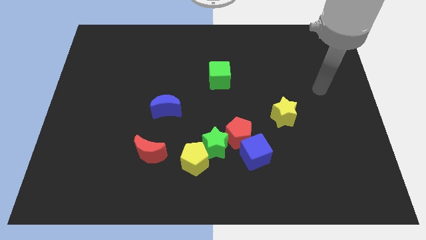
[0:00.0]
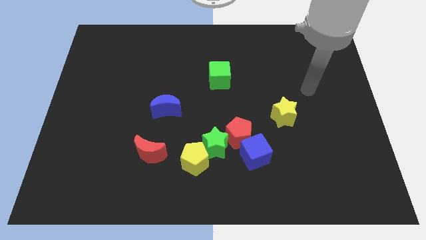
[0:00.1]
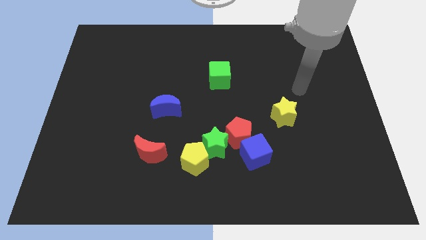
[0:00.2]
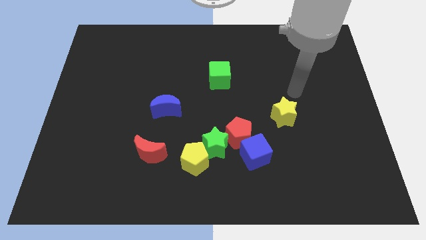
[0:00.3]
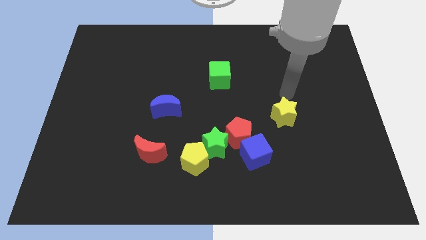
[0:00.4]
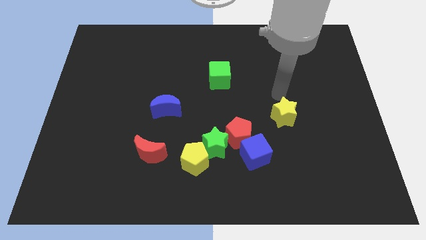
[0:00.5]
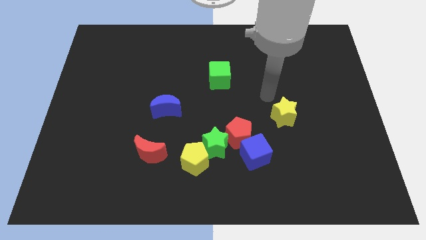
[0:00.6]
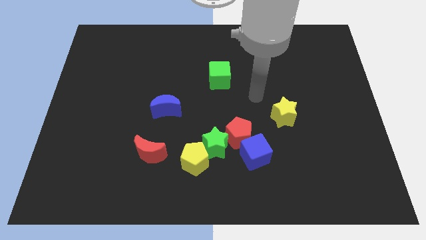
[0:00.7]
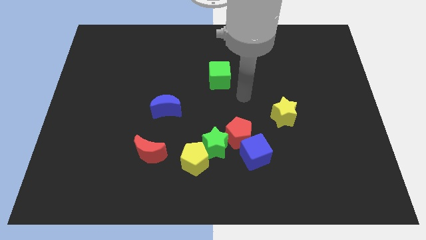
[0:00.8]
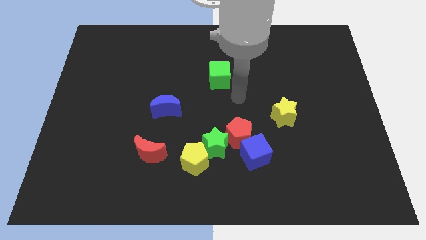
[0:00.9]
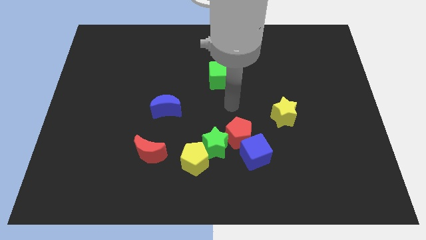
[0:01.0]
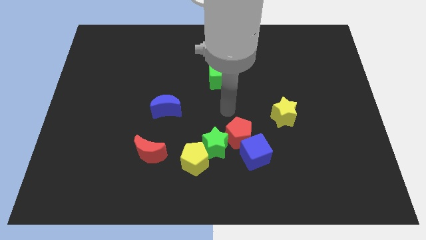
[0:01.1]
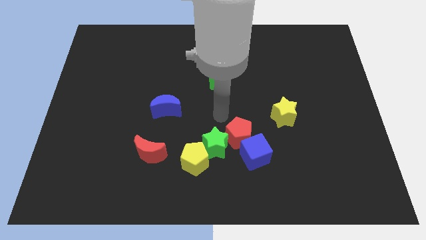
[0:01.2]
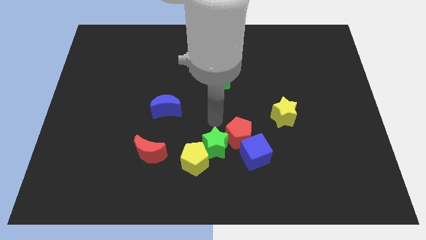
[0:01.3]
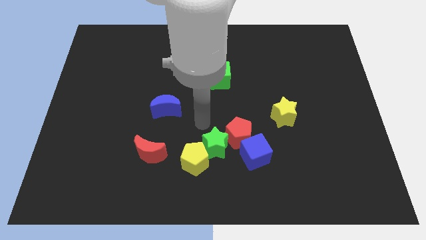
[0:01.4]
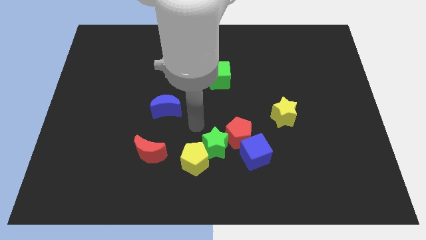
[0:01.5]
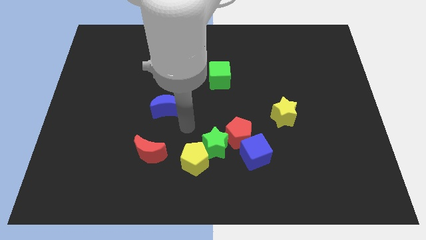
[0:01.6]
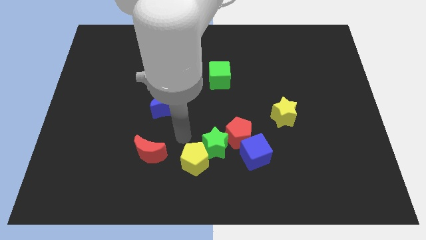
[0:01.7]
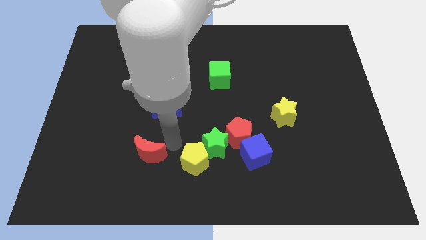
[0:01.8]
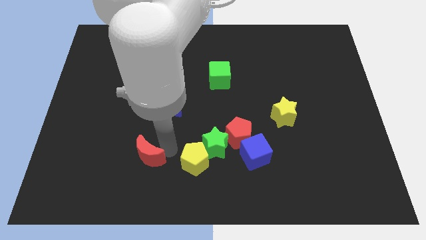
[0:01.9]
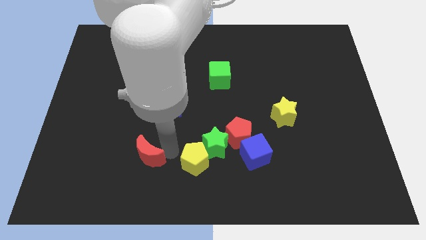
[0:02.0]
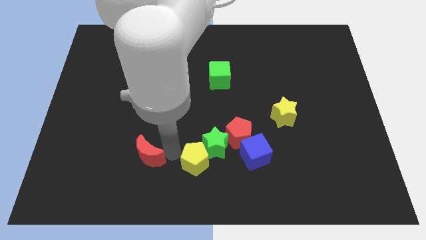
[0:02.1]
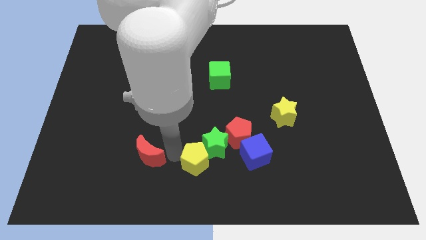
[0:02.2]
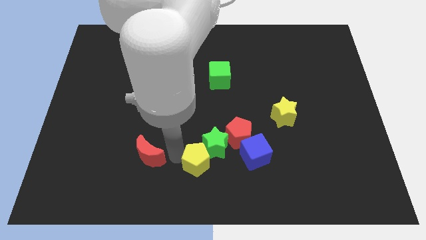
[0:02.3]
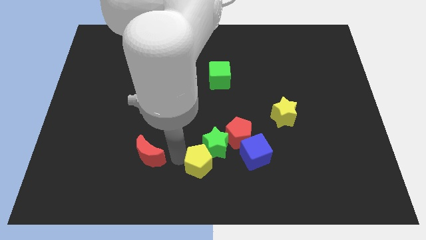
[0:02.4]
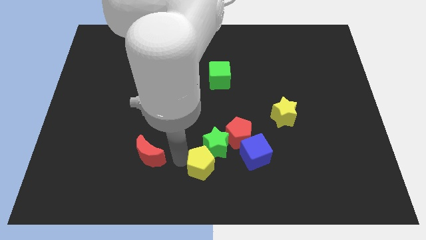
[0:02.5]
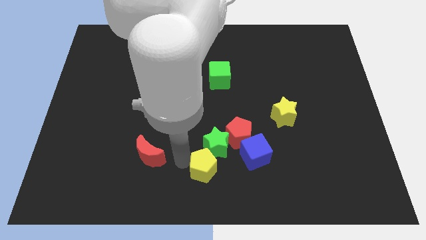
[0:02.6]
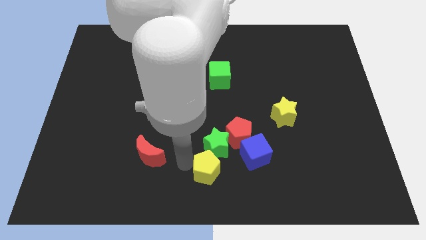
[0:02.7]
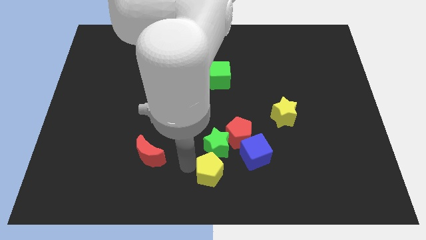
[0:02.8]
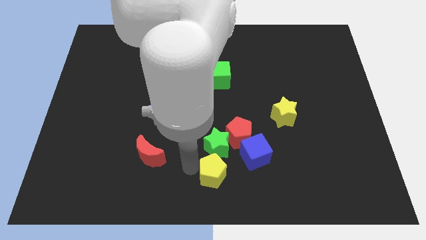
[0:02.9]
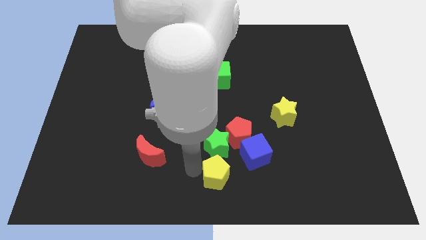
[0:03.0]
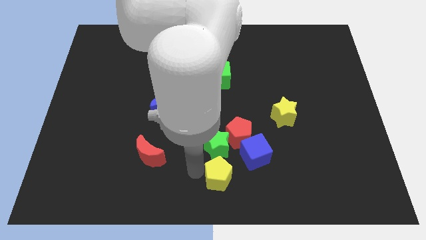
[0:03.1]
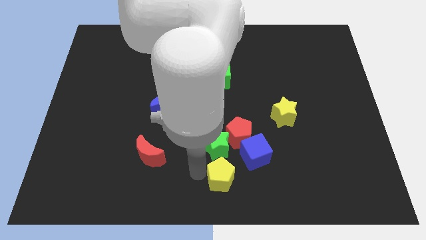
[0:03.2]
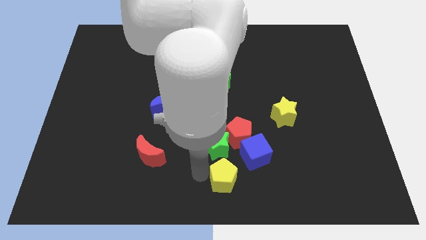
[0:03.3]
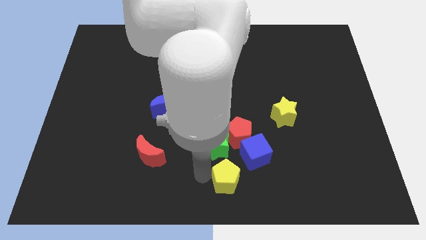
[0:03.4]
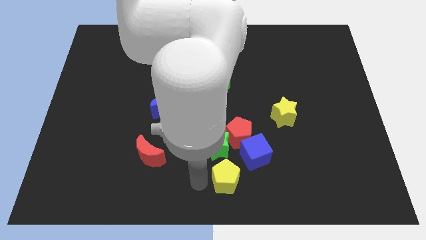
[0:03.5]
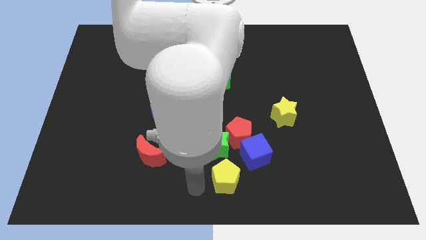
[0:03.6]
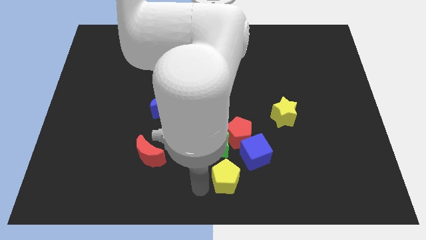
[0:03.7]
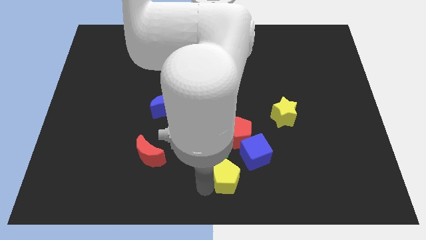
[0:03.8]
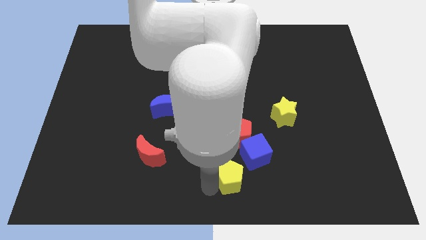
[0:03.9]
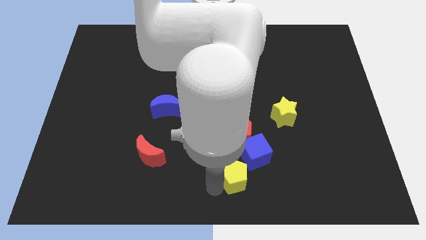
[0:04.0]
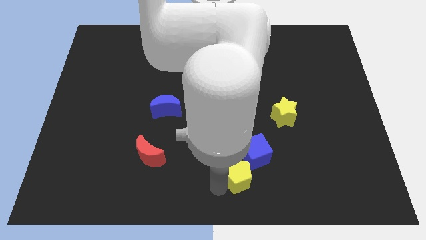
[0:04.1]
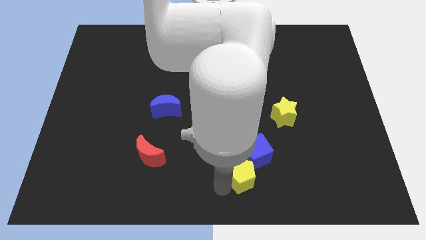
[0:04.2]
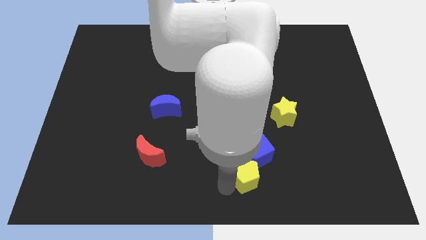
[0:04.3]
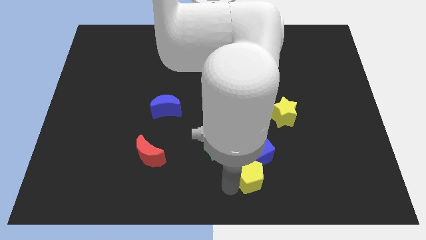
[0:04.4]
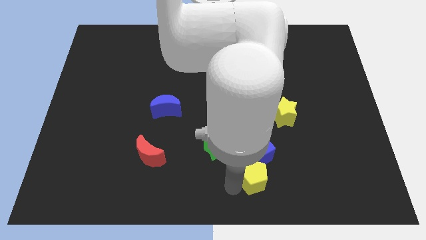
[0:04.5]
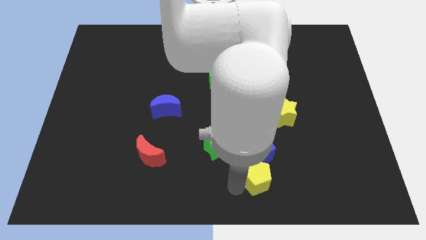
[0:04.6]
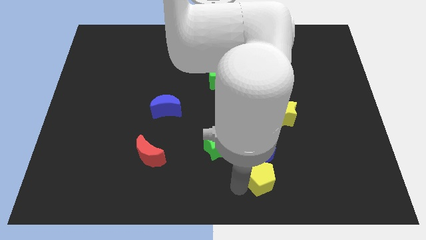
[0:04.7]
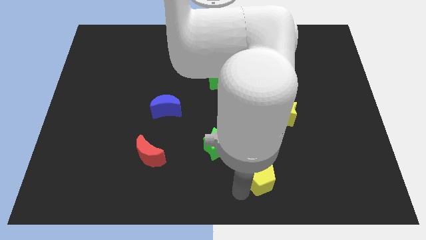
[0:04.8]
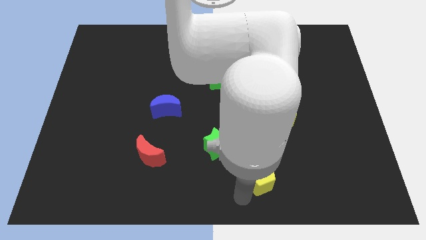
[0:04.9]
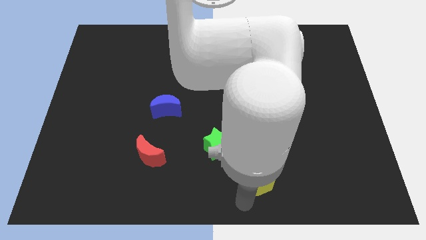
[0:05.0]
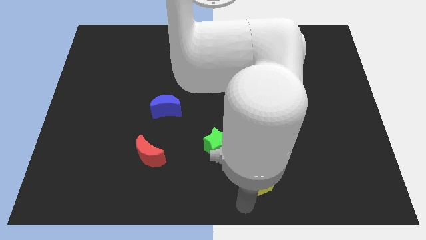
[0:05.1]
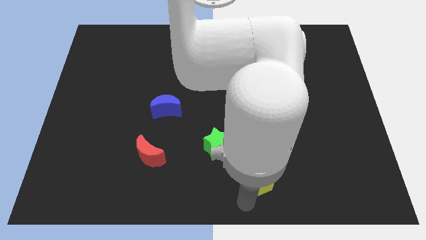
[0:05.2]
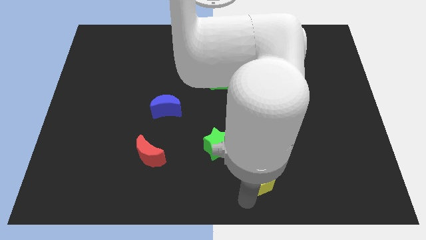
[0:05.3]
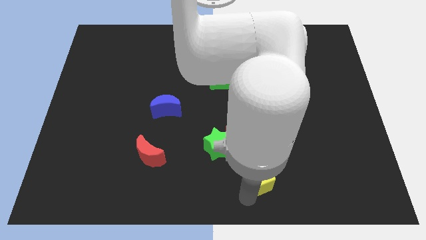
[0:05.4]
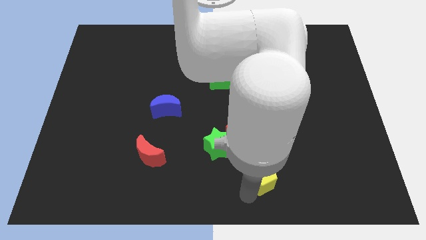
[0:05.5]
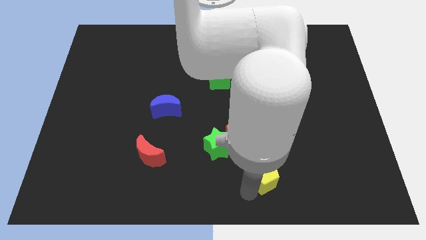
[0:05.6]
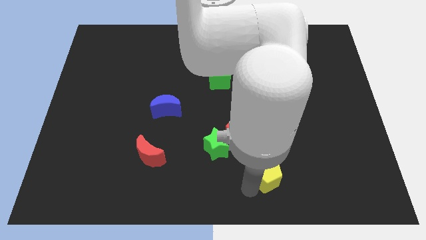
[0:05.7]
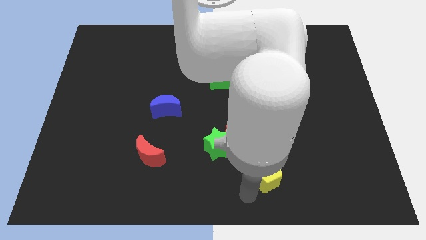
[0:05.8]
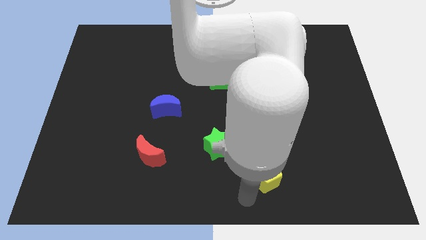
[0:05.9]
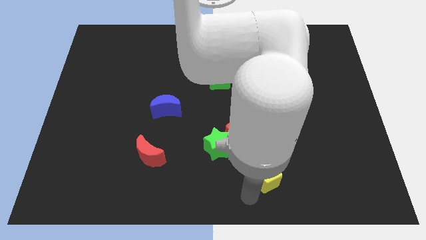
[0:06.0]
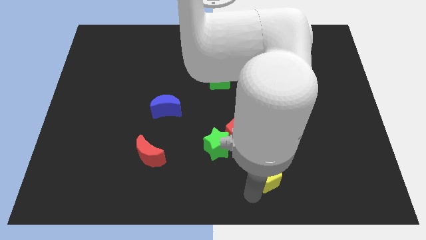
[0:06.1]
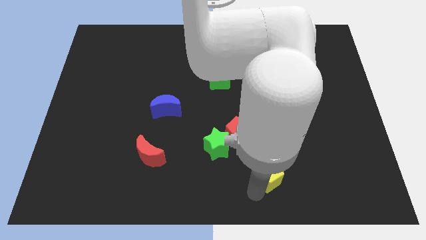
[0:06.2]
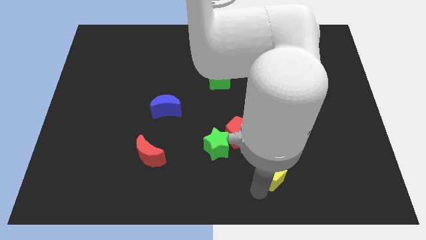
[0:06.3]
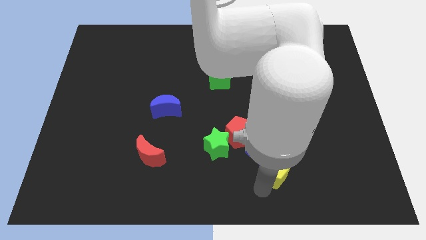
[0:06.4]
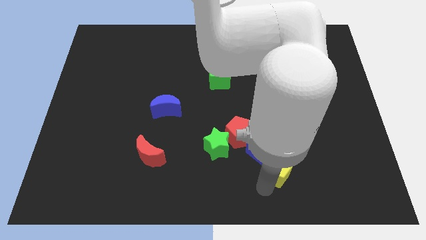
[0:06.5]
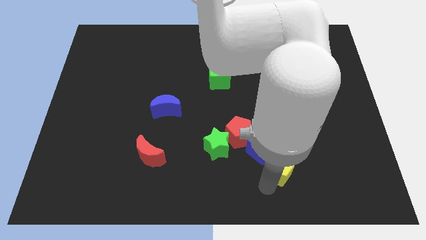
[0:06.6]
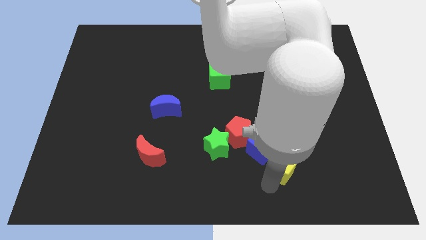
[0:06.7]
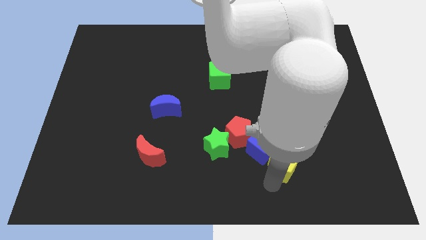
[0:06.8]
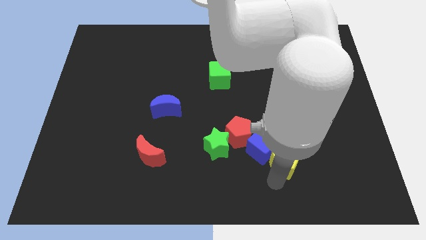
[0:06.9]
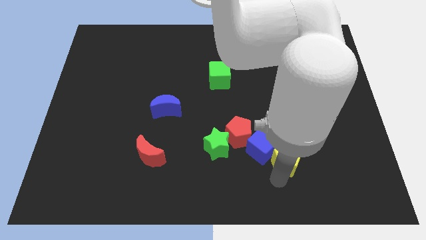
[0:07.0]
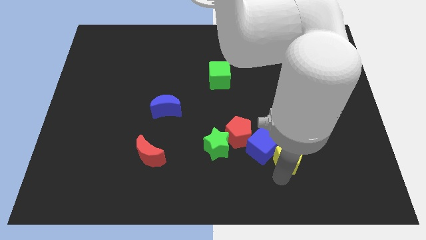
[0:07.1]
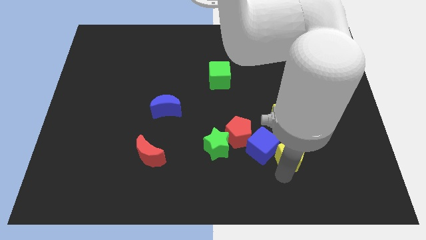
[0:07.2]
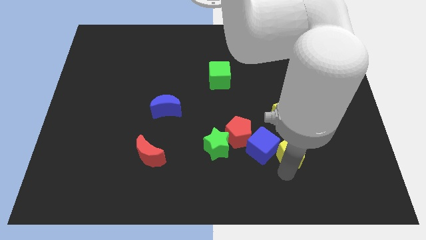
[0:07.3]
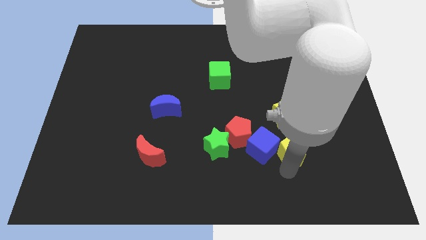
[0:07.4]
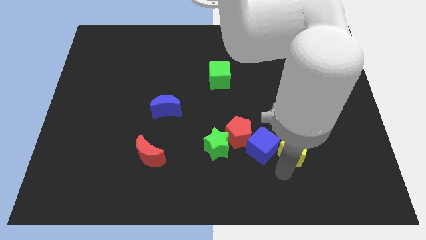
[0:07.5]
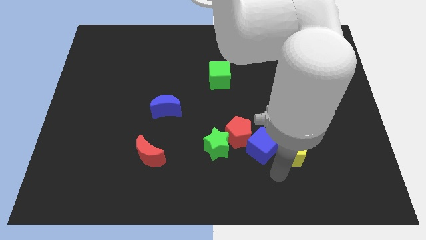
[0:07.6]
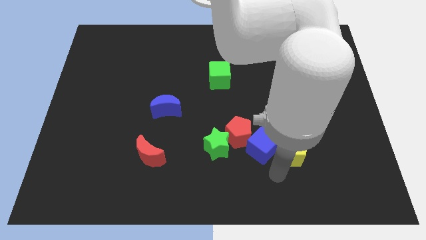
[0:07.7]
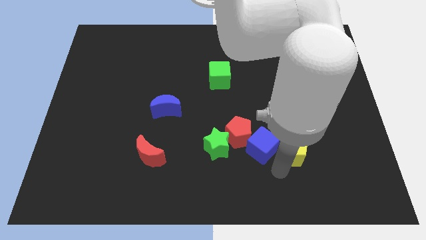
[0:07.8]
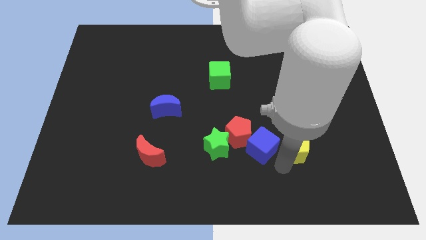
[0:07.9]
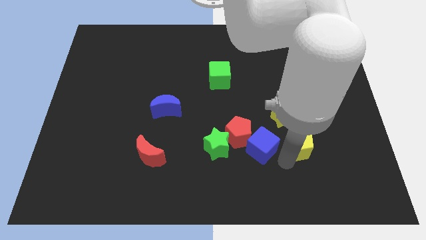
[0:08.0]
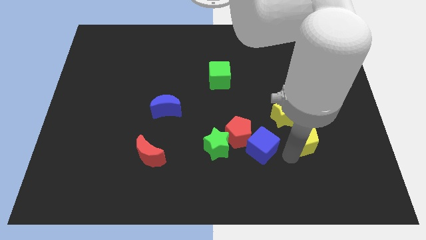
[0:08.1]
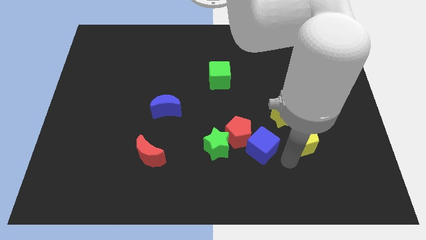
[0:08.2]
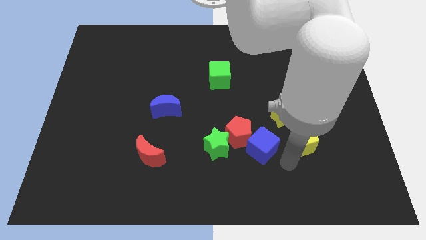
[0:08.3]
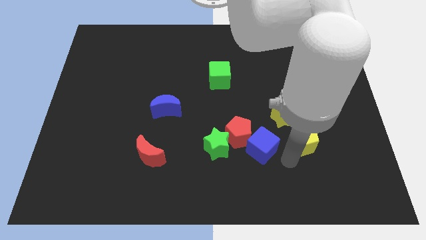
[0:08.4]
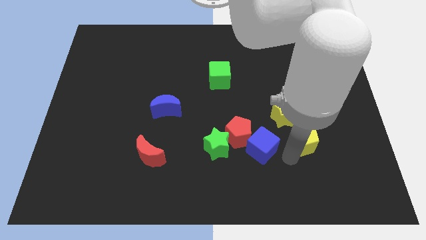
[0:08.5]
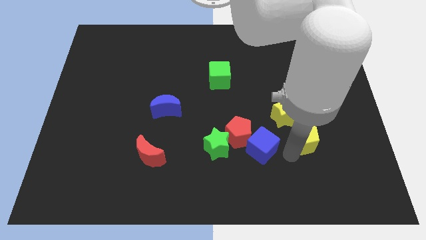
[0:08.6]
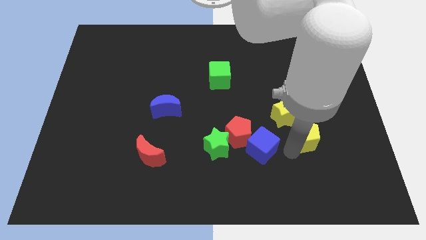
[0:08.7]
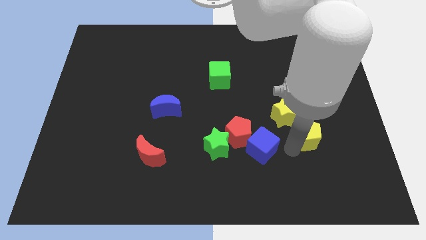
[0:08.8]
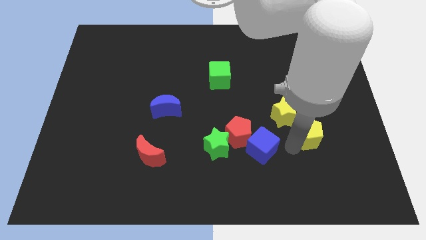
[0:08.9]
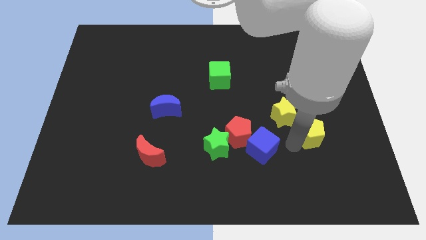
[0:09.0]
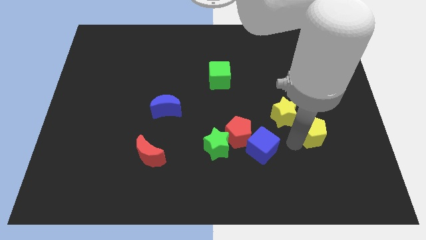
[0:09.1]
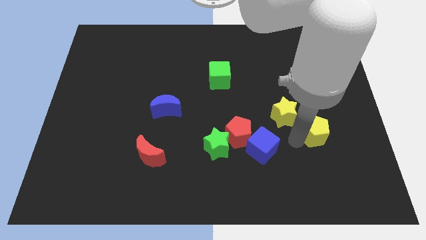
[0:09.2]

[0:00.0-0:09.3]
slide the yellow pentagon to the right side of the yellow star
